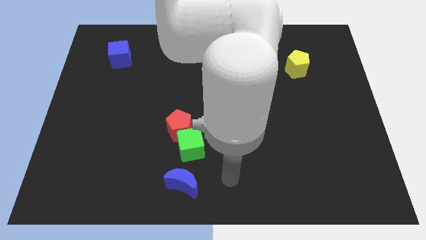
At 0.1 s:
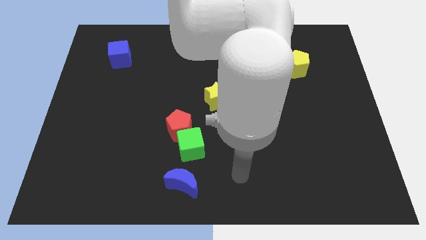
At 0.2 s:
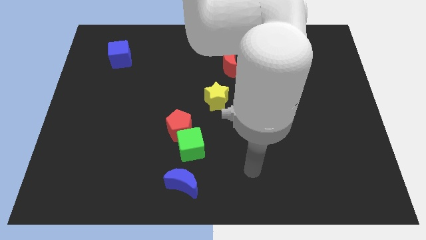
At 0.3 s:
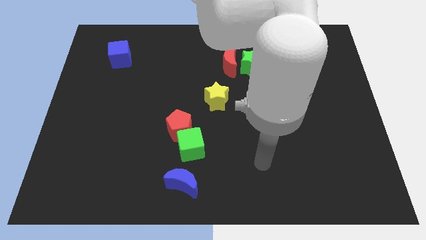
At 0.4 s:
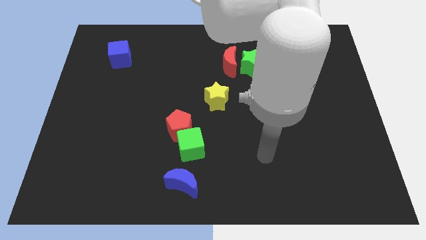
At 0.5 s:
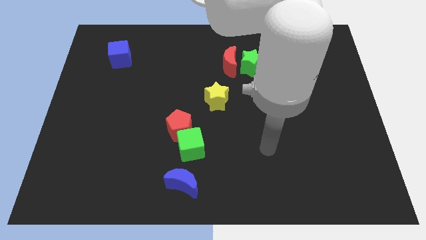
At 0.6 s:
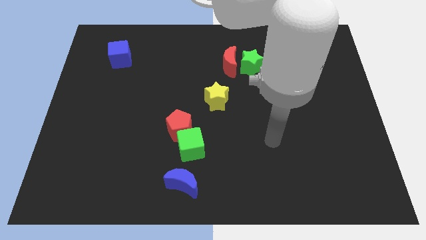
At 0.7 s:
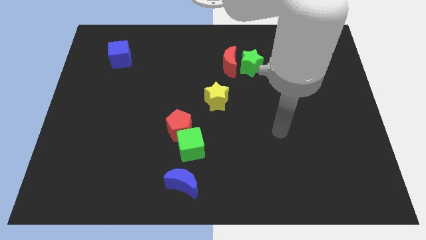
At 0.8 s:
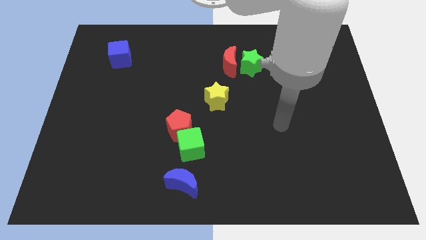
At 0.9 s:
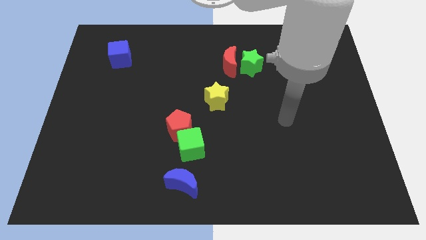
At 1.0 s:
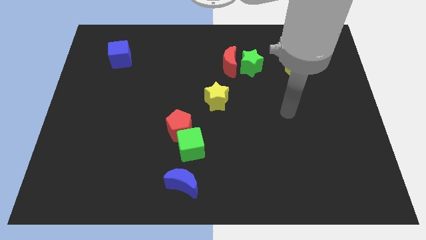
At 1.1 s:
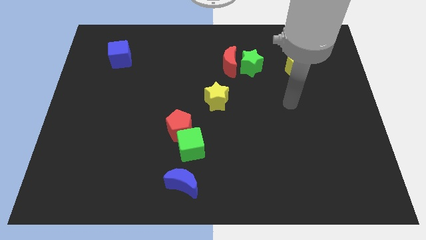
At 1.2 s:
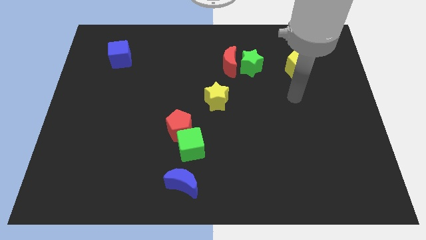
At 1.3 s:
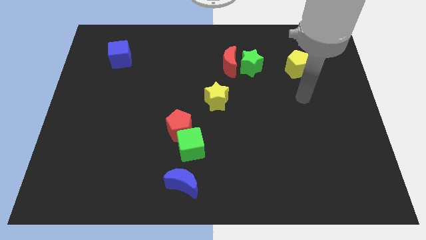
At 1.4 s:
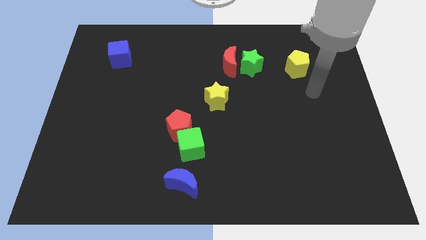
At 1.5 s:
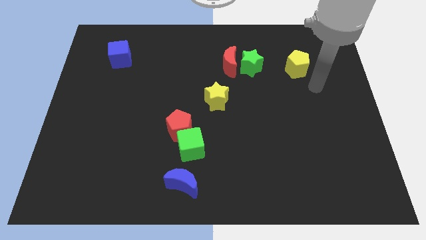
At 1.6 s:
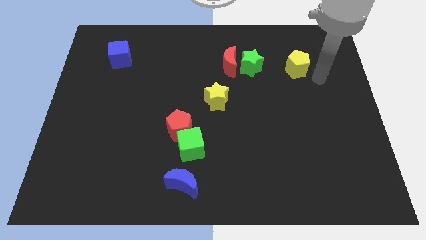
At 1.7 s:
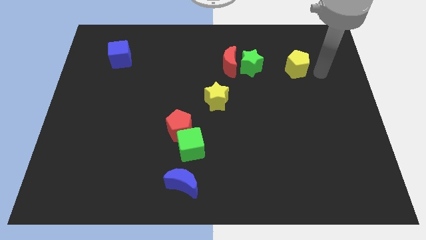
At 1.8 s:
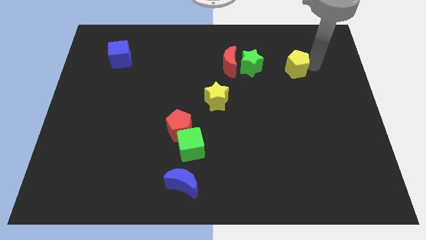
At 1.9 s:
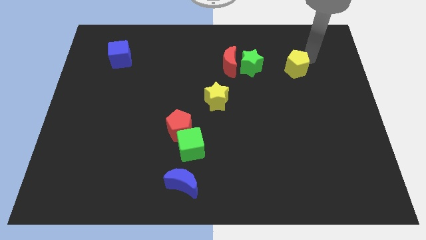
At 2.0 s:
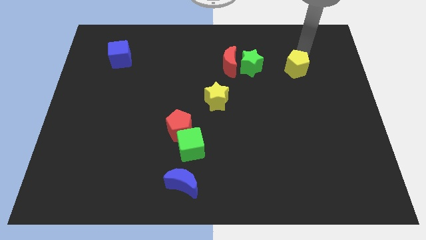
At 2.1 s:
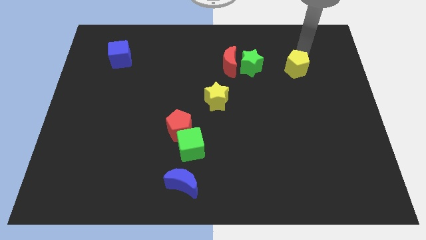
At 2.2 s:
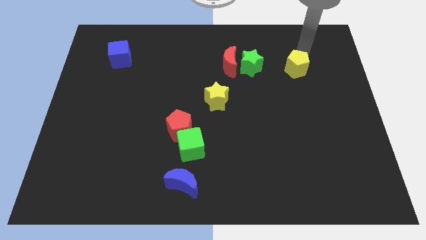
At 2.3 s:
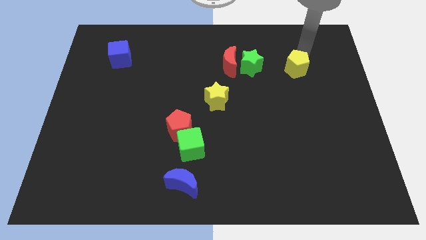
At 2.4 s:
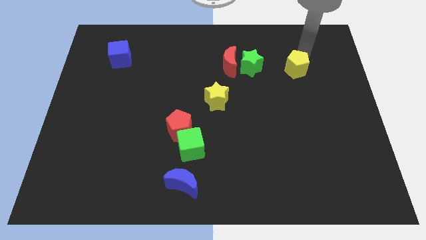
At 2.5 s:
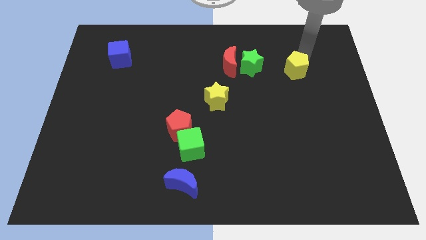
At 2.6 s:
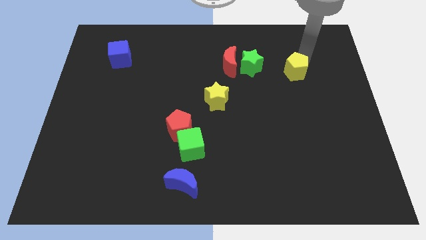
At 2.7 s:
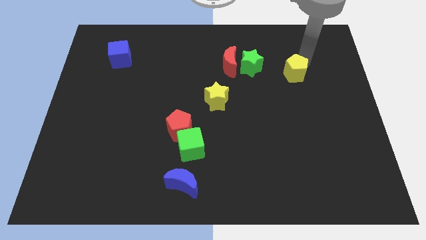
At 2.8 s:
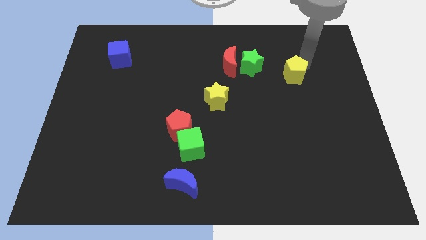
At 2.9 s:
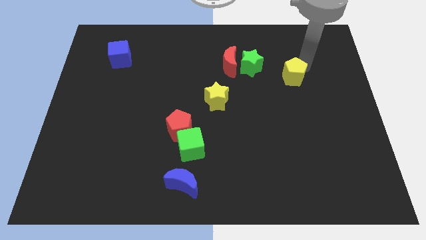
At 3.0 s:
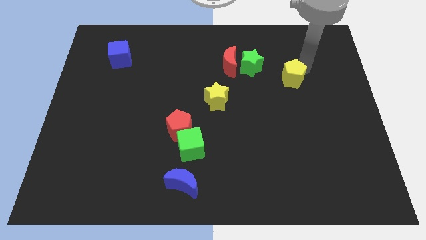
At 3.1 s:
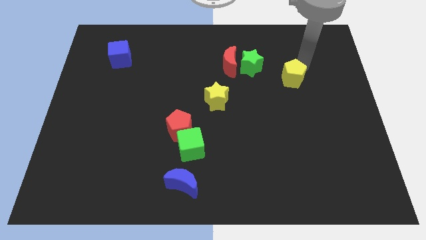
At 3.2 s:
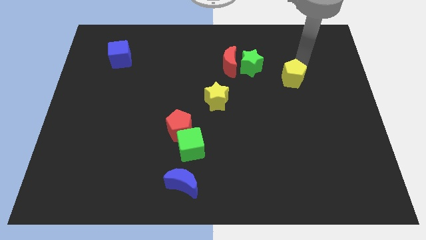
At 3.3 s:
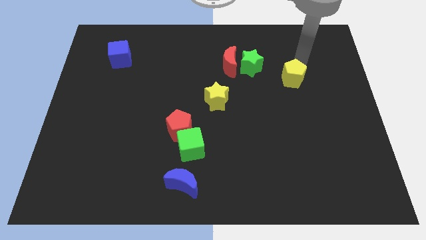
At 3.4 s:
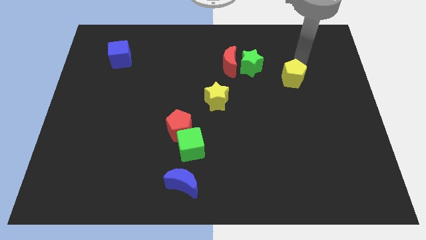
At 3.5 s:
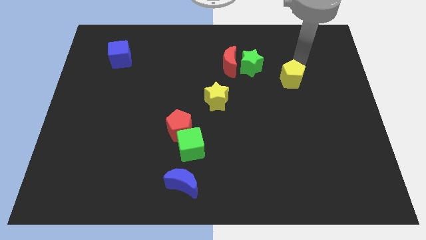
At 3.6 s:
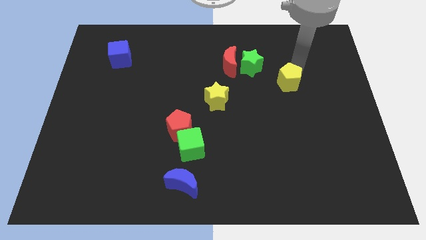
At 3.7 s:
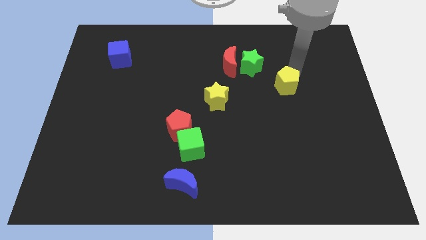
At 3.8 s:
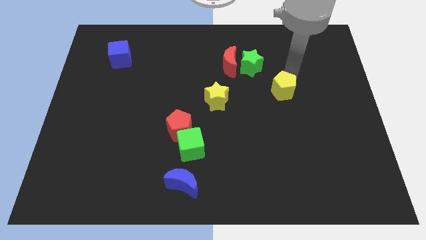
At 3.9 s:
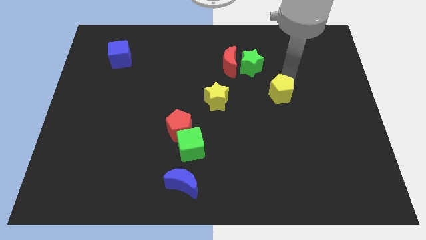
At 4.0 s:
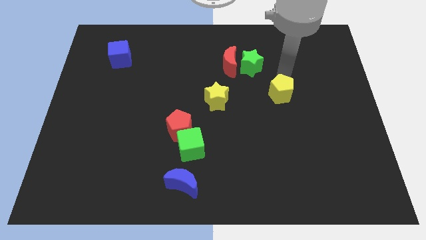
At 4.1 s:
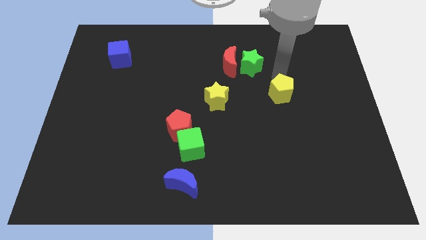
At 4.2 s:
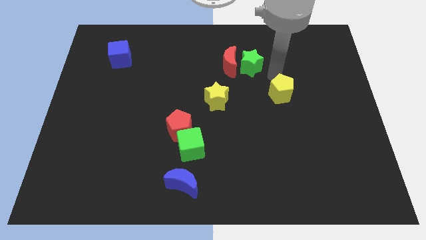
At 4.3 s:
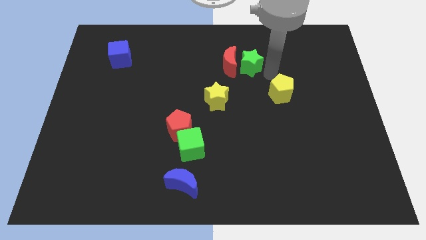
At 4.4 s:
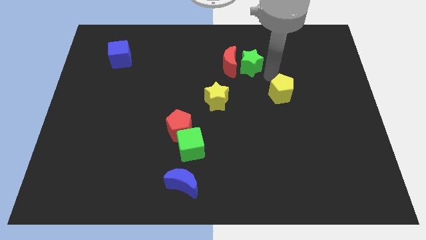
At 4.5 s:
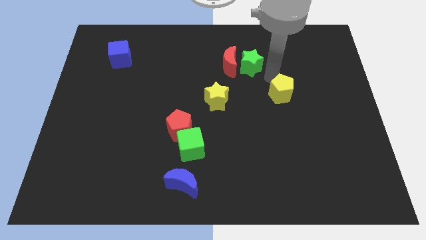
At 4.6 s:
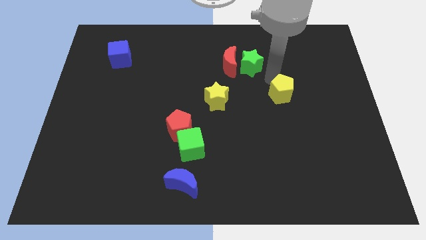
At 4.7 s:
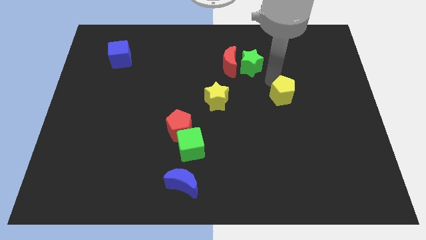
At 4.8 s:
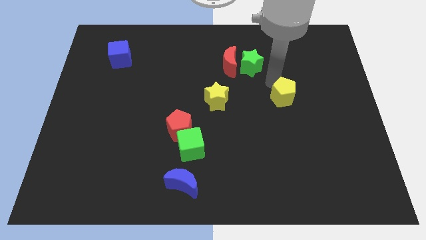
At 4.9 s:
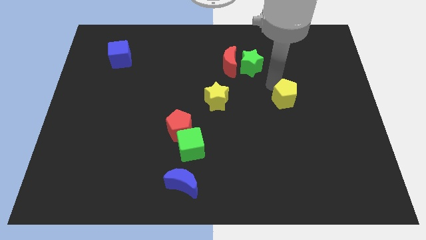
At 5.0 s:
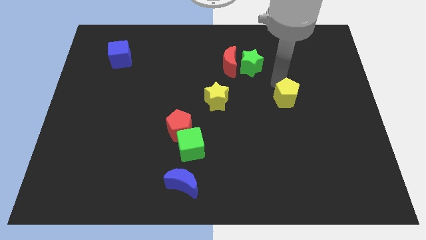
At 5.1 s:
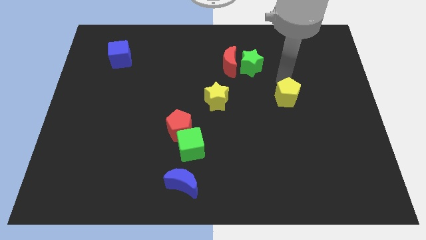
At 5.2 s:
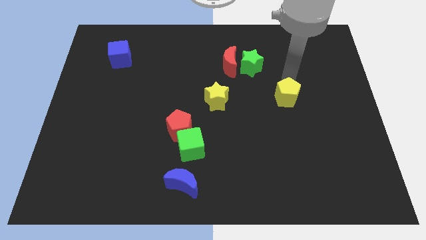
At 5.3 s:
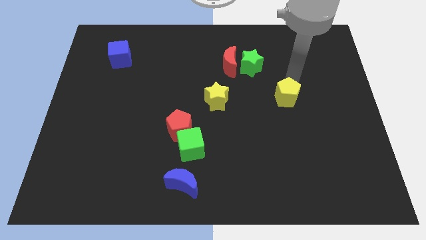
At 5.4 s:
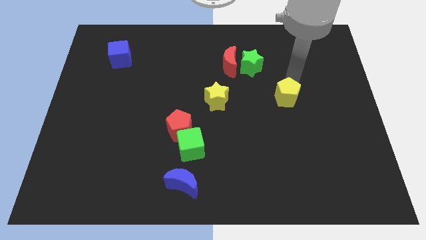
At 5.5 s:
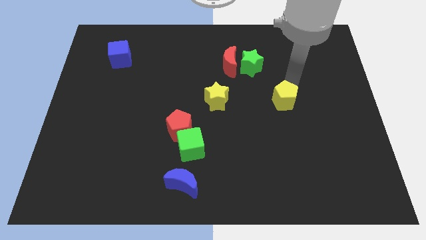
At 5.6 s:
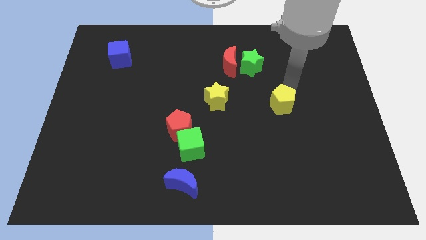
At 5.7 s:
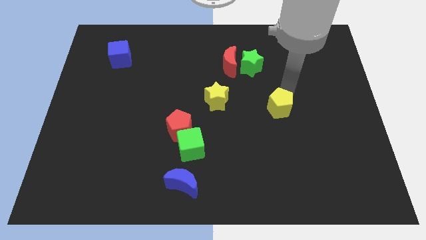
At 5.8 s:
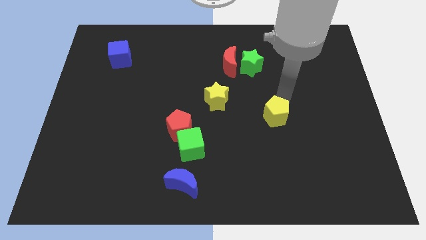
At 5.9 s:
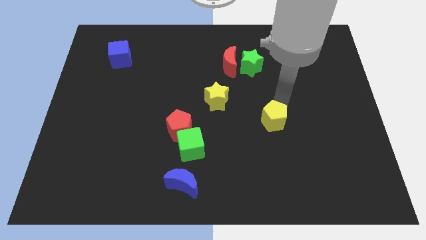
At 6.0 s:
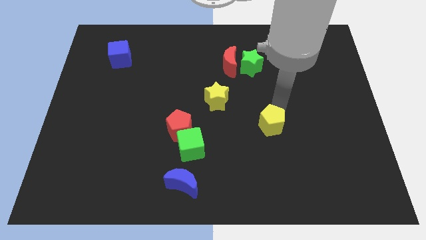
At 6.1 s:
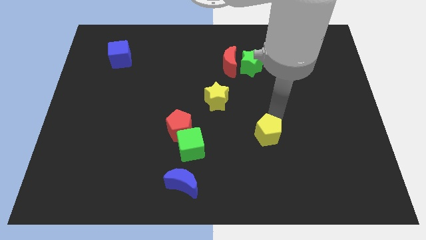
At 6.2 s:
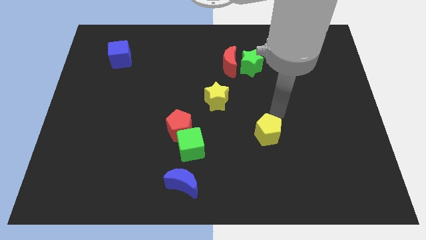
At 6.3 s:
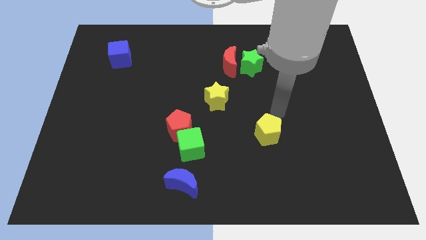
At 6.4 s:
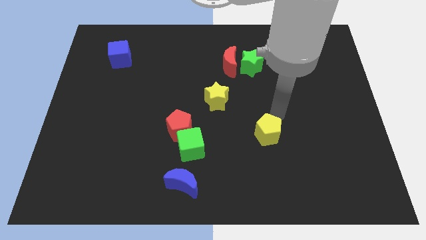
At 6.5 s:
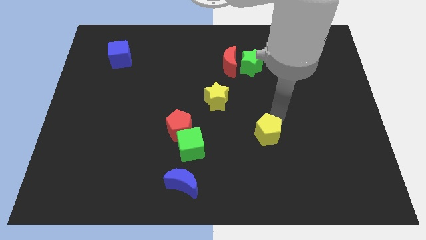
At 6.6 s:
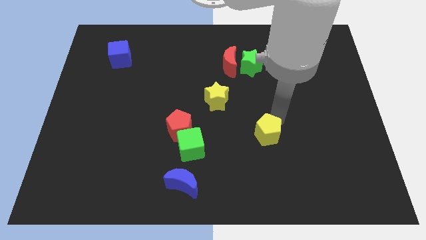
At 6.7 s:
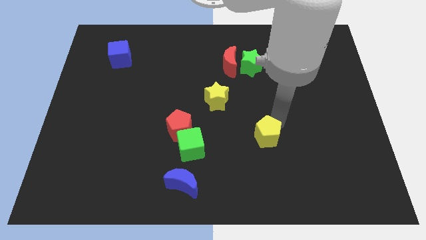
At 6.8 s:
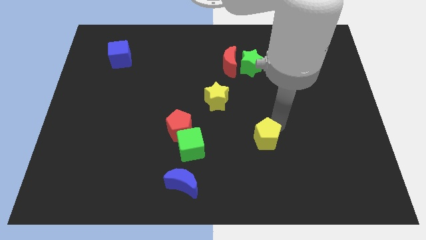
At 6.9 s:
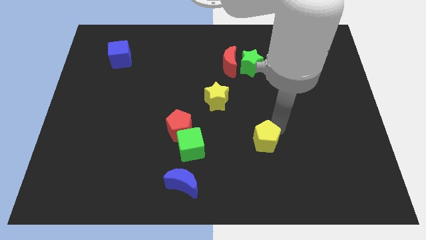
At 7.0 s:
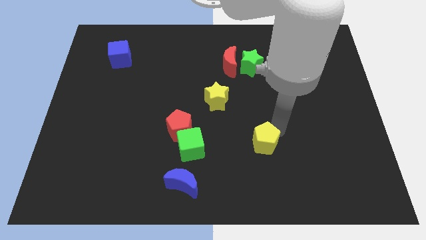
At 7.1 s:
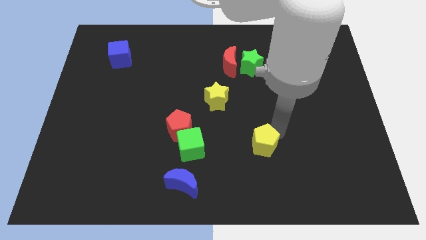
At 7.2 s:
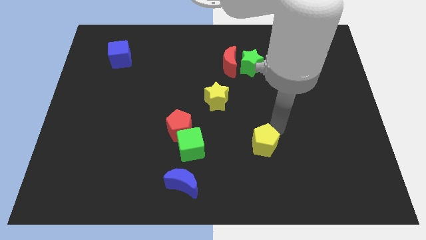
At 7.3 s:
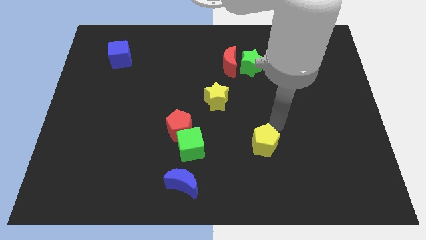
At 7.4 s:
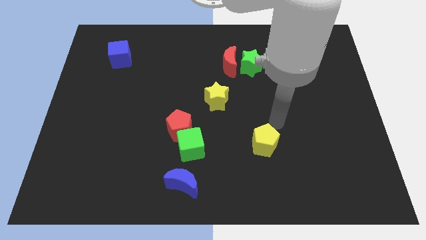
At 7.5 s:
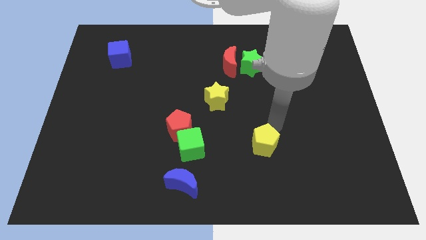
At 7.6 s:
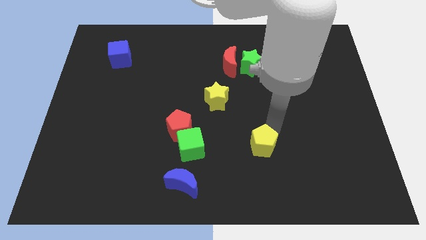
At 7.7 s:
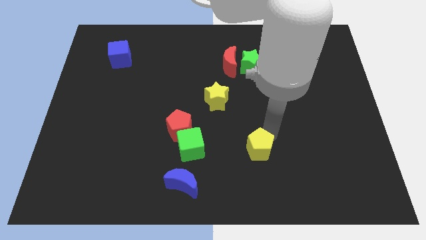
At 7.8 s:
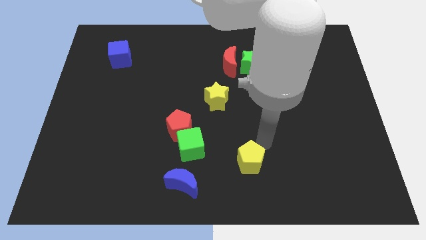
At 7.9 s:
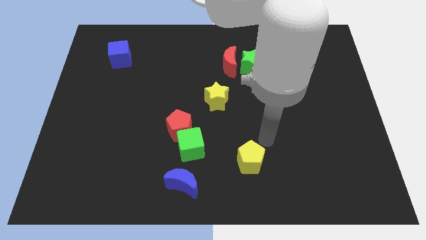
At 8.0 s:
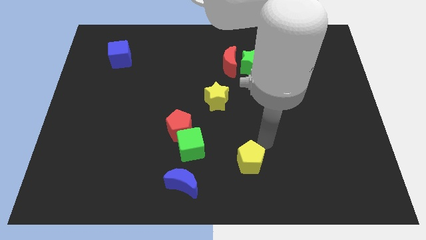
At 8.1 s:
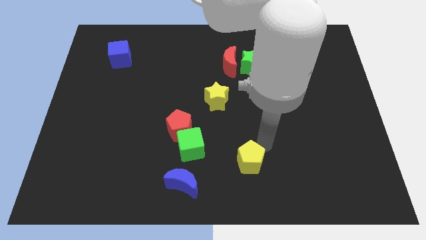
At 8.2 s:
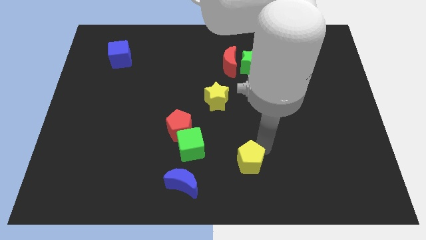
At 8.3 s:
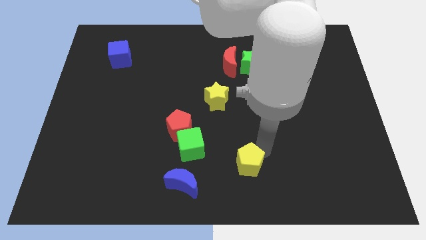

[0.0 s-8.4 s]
put the yellow pentagon to the bottom side
